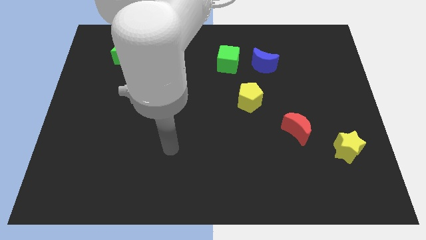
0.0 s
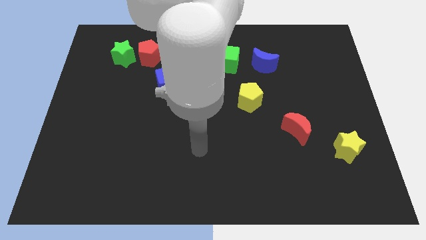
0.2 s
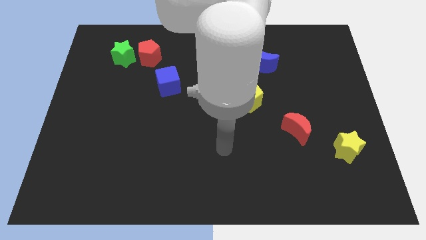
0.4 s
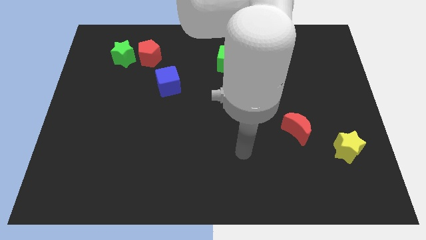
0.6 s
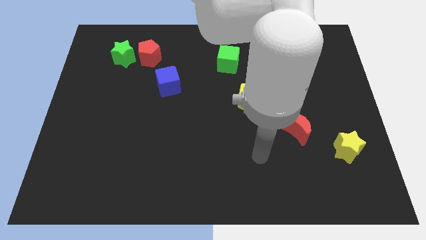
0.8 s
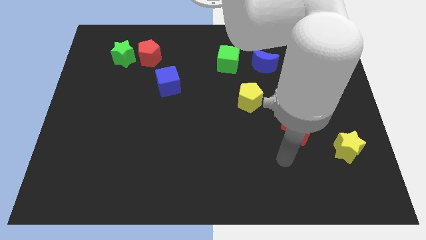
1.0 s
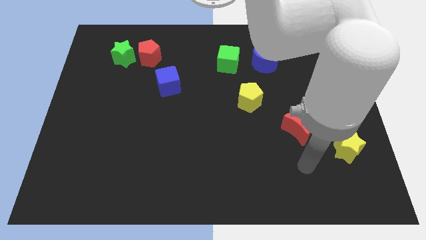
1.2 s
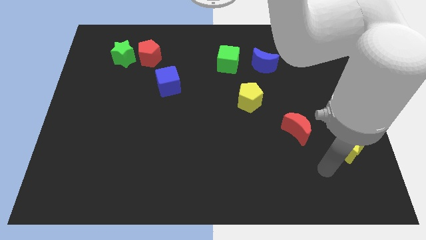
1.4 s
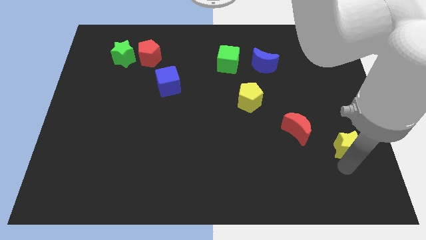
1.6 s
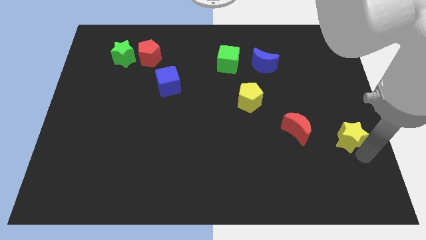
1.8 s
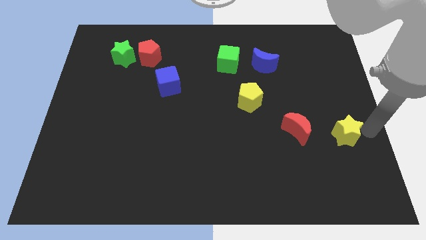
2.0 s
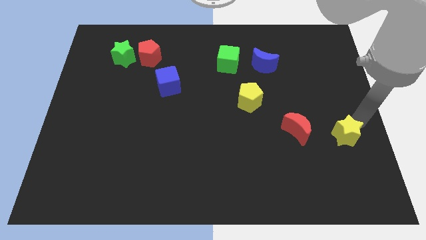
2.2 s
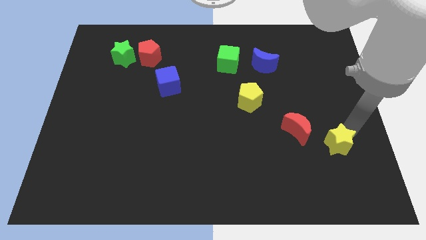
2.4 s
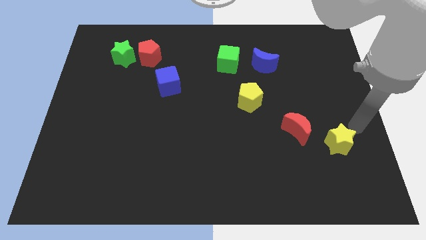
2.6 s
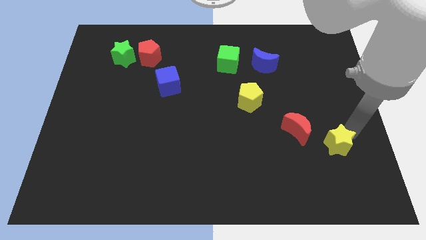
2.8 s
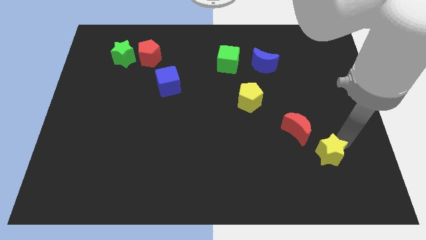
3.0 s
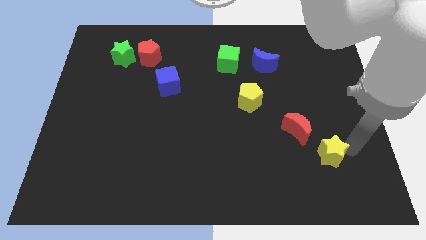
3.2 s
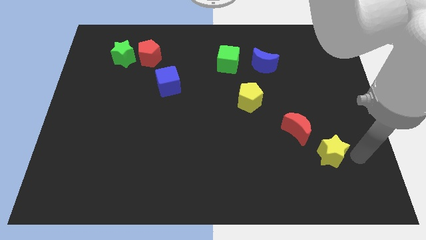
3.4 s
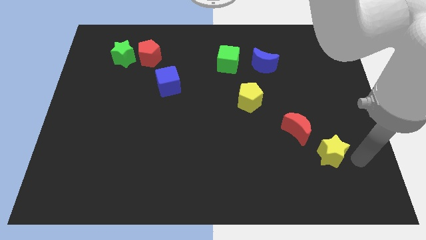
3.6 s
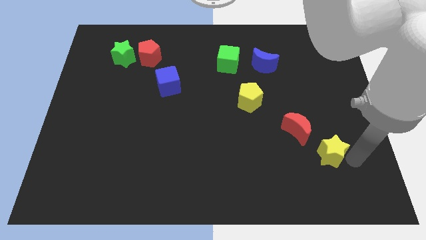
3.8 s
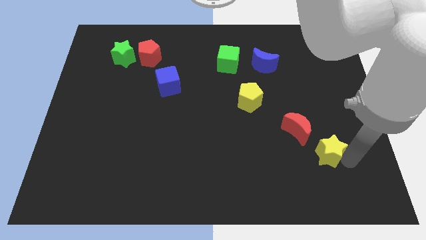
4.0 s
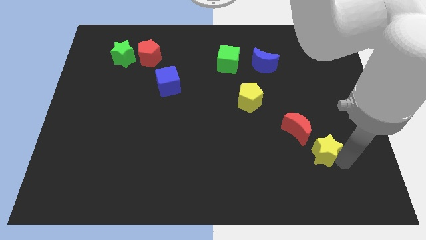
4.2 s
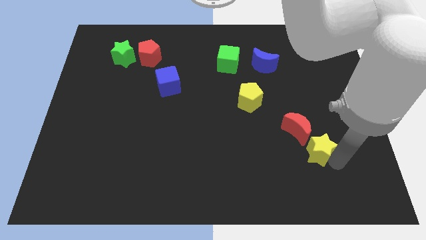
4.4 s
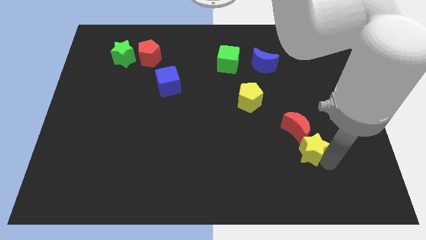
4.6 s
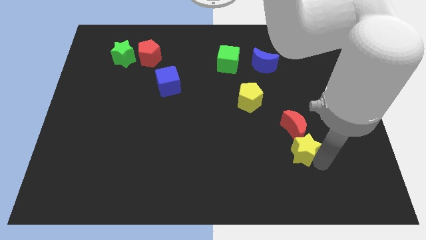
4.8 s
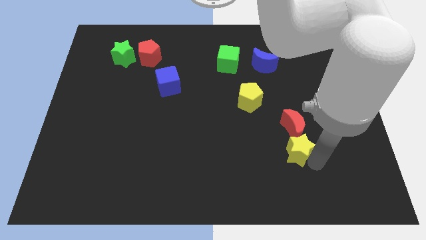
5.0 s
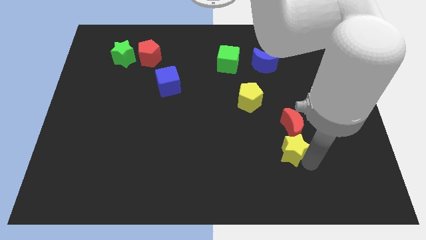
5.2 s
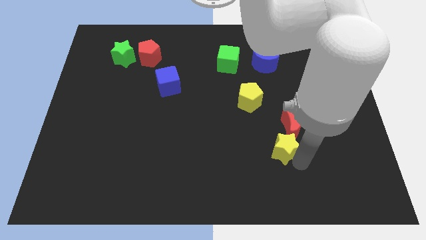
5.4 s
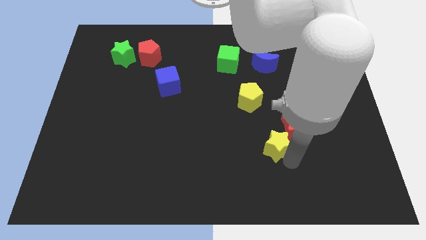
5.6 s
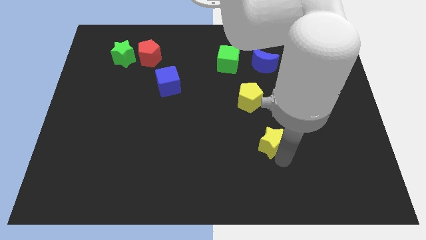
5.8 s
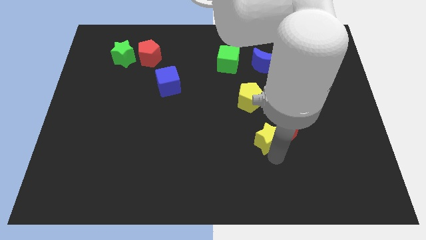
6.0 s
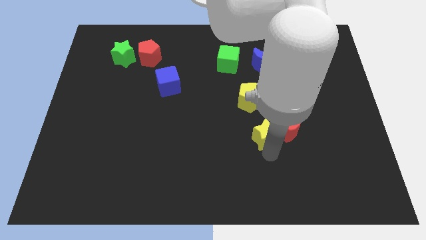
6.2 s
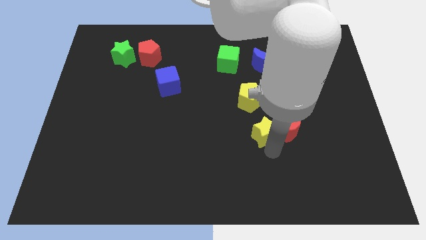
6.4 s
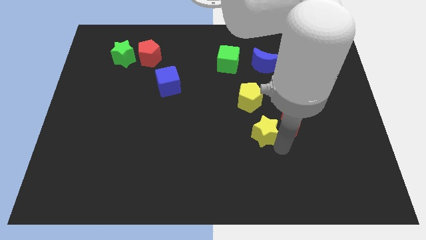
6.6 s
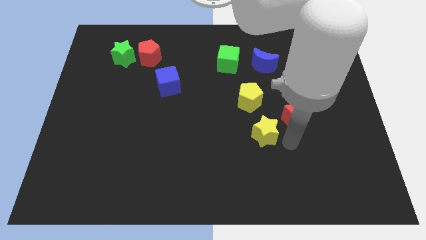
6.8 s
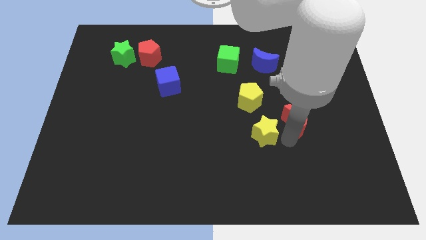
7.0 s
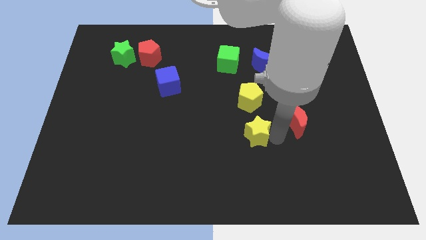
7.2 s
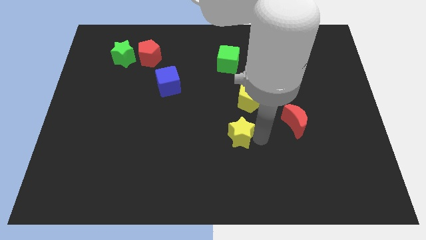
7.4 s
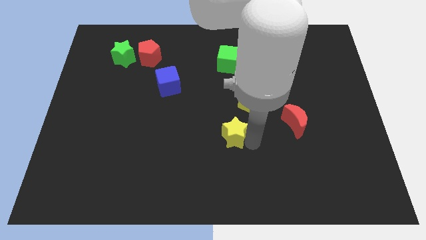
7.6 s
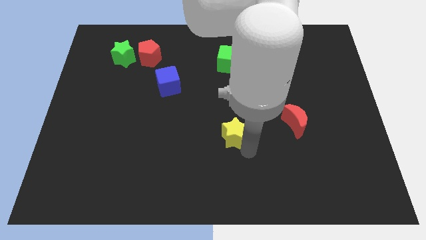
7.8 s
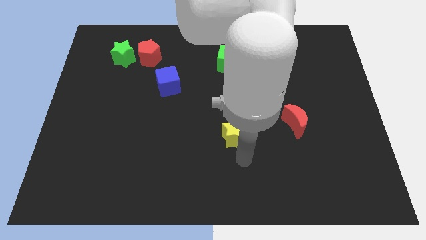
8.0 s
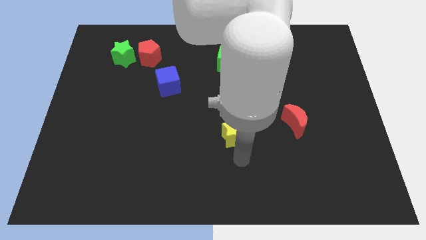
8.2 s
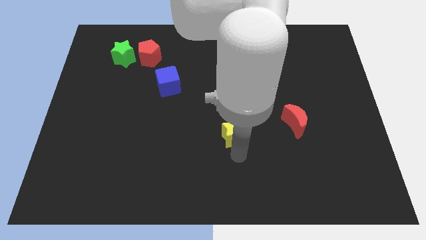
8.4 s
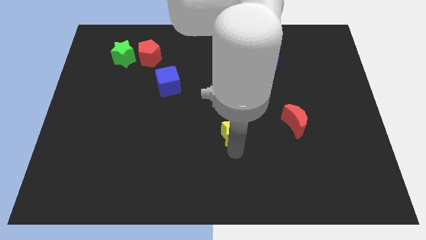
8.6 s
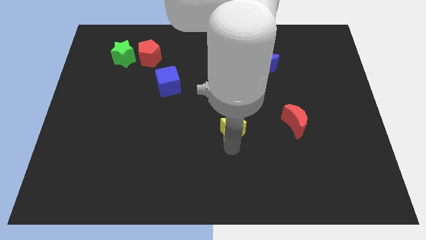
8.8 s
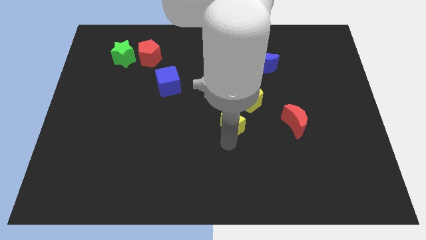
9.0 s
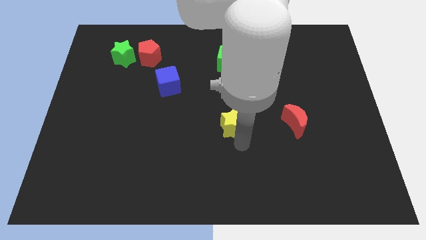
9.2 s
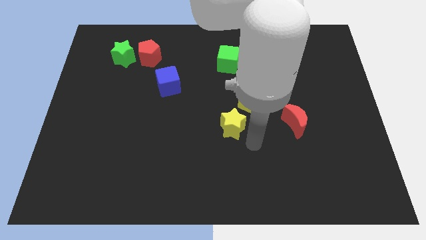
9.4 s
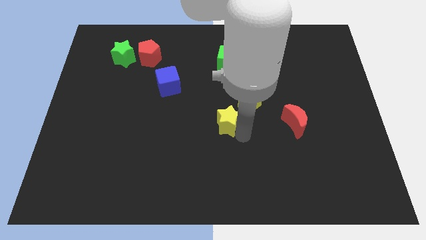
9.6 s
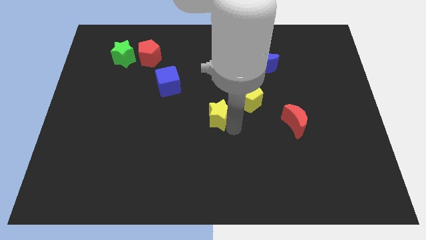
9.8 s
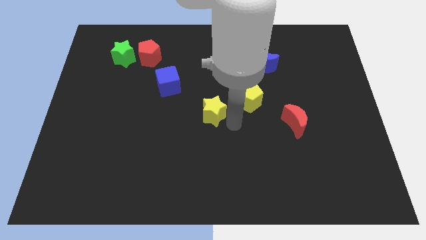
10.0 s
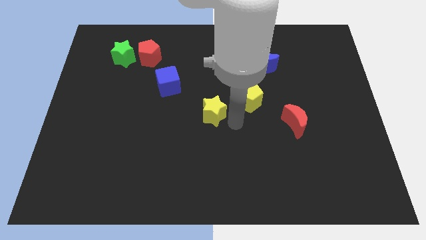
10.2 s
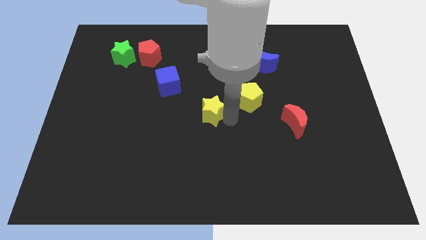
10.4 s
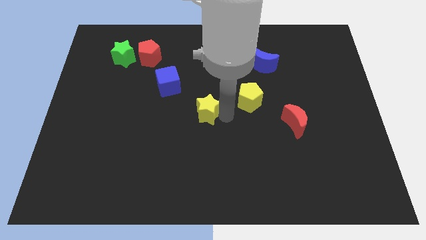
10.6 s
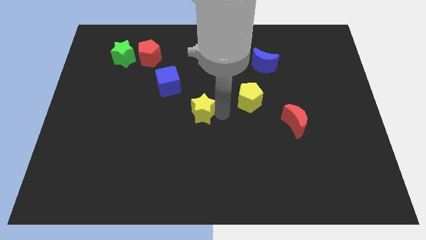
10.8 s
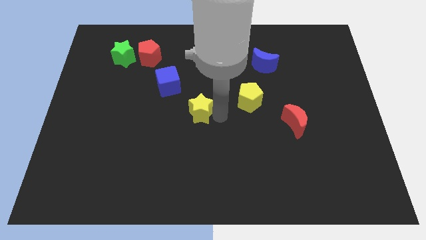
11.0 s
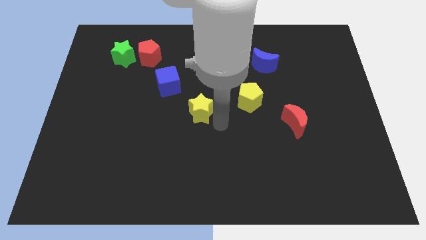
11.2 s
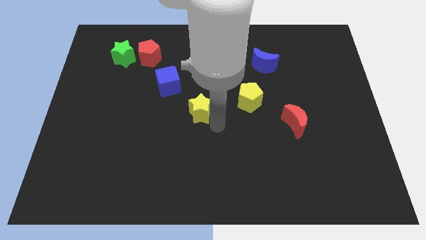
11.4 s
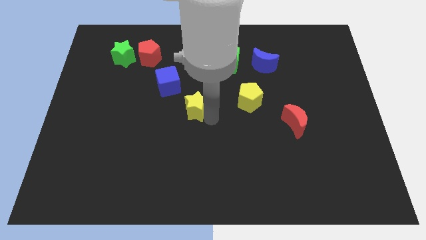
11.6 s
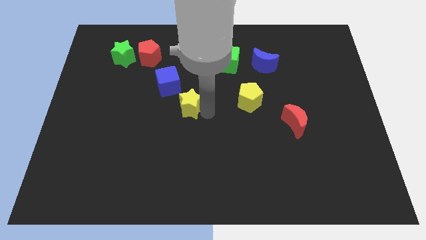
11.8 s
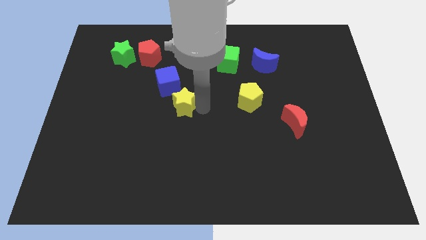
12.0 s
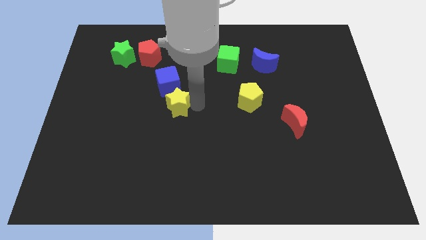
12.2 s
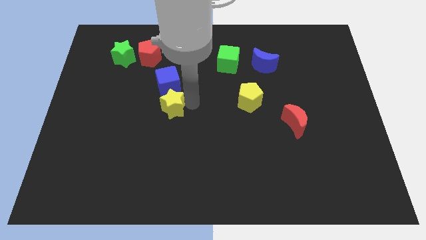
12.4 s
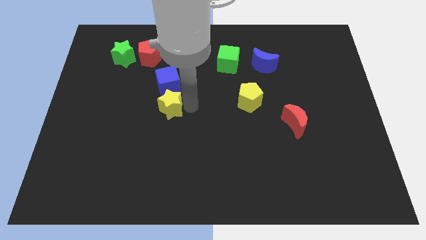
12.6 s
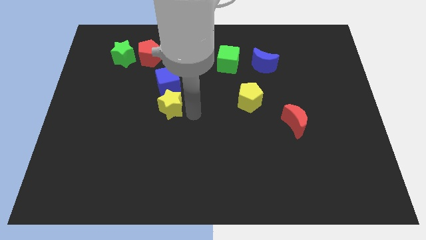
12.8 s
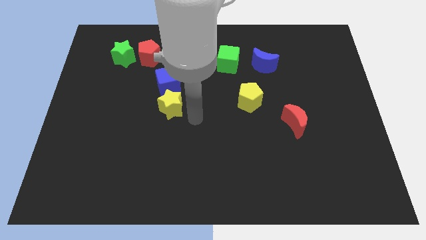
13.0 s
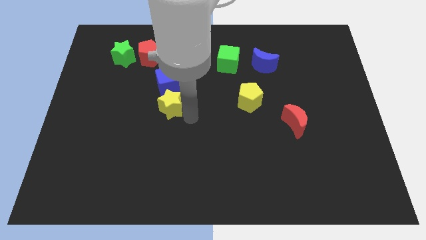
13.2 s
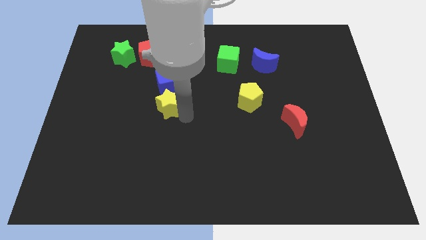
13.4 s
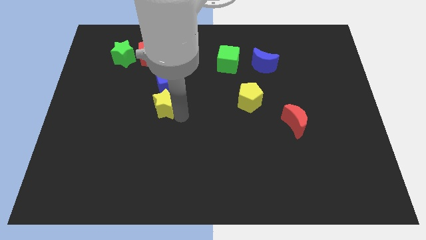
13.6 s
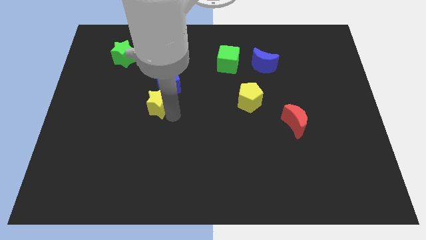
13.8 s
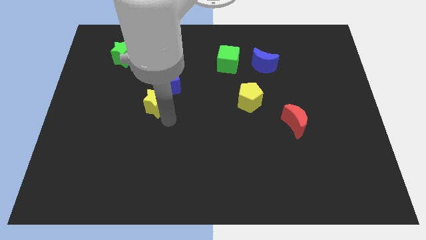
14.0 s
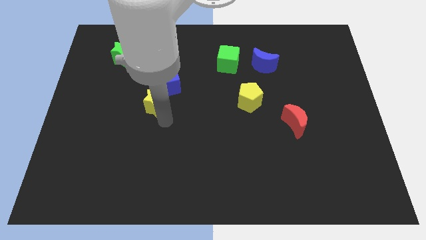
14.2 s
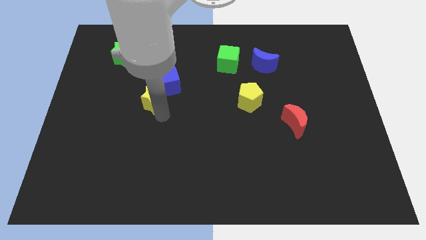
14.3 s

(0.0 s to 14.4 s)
put the yellow star below the red pentagon
